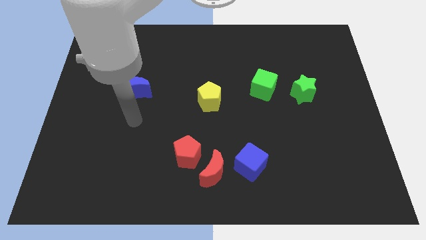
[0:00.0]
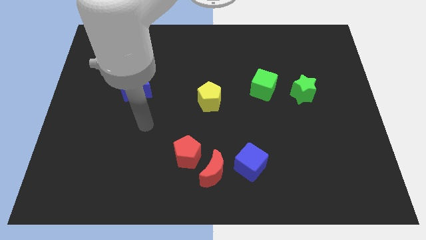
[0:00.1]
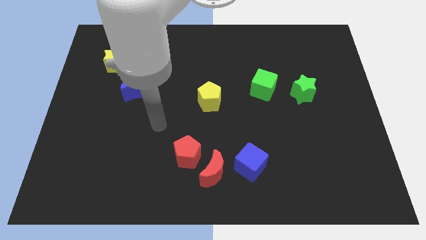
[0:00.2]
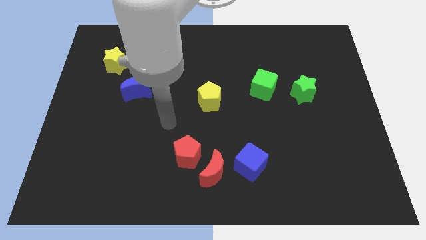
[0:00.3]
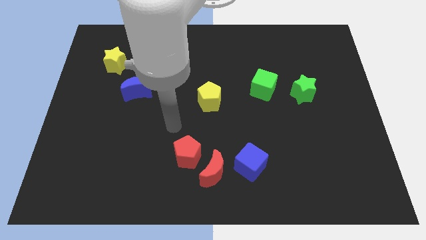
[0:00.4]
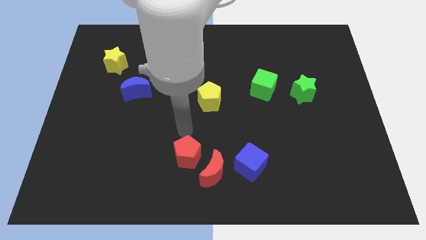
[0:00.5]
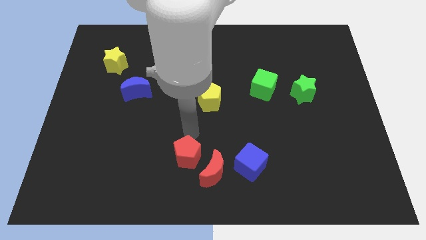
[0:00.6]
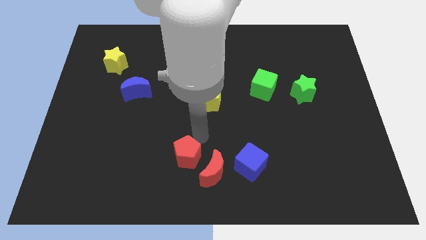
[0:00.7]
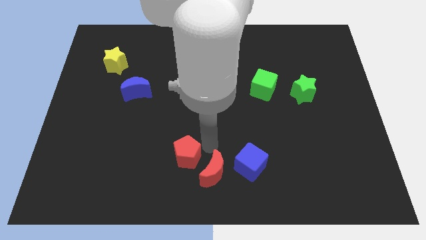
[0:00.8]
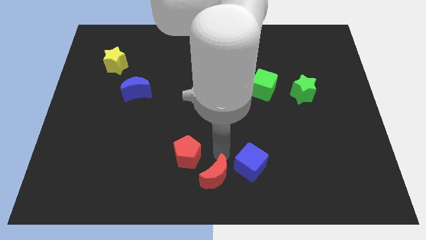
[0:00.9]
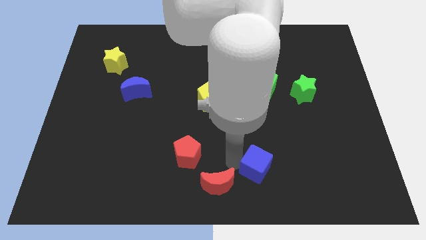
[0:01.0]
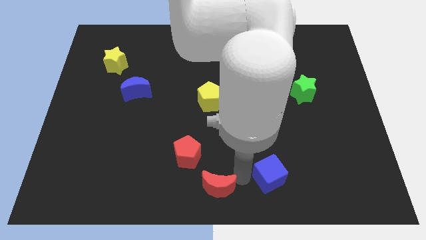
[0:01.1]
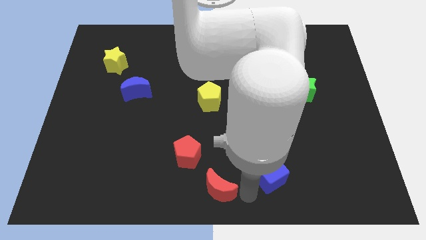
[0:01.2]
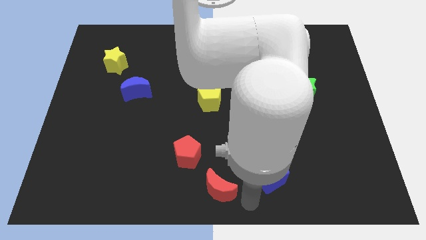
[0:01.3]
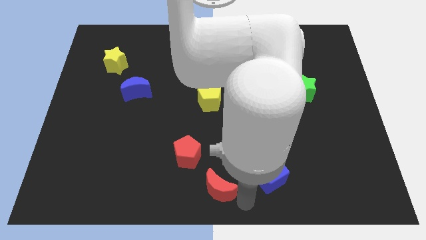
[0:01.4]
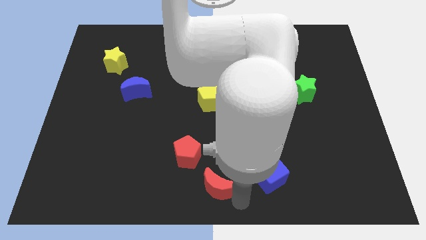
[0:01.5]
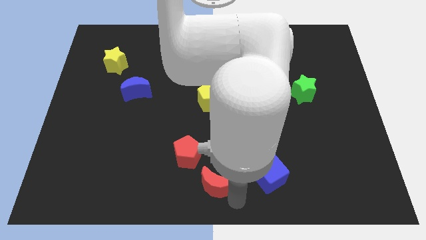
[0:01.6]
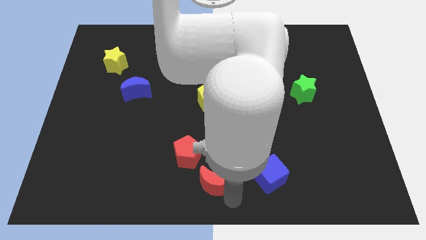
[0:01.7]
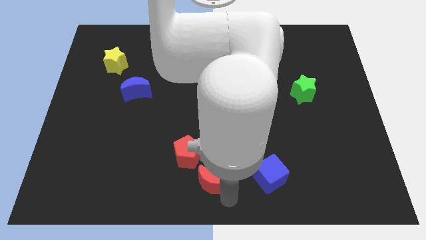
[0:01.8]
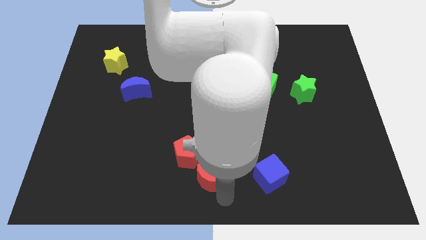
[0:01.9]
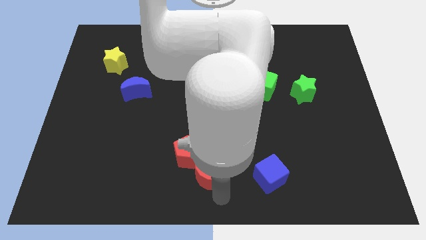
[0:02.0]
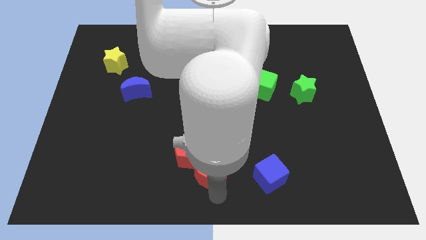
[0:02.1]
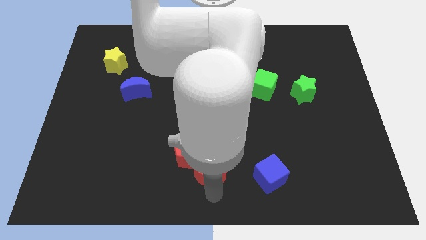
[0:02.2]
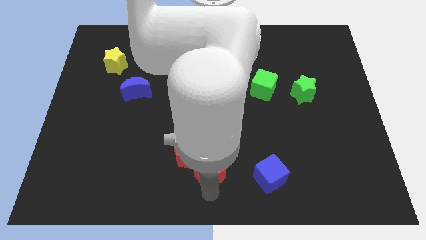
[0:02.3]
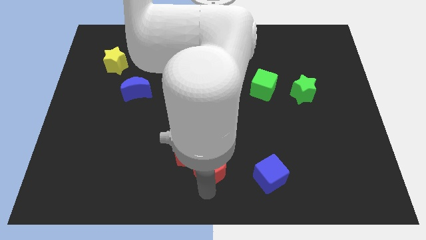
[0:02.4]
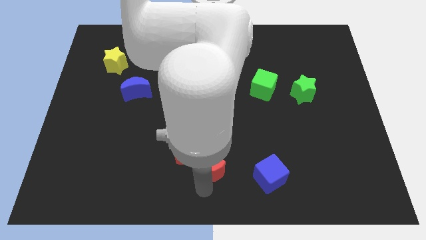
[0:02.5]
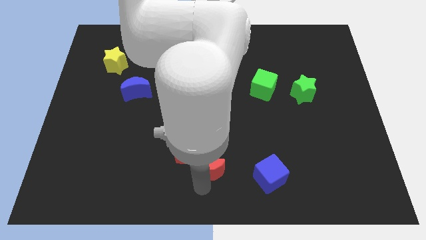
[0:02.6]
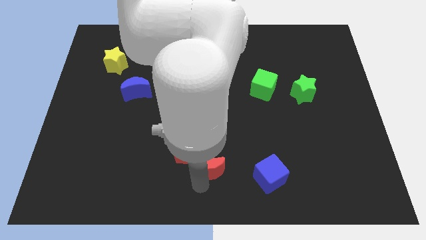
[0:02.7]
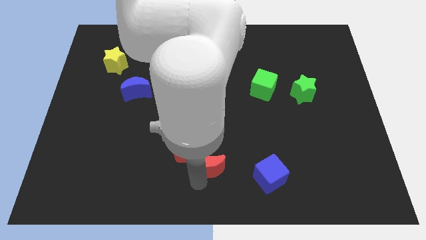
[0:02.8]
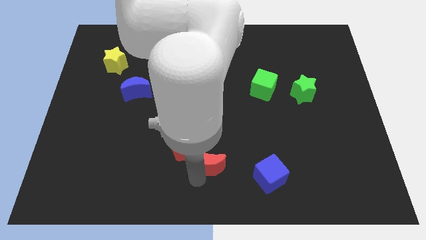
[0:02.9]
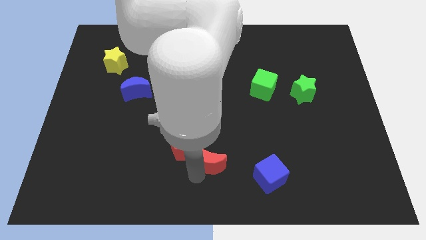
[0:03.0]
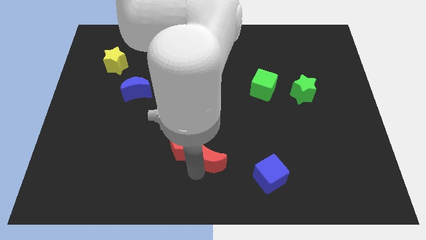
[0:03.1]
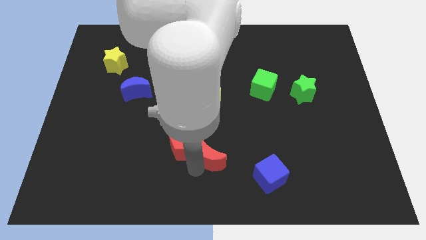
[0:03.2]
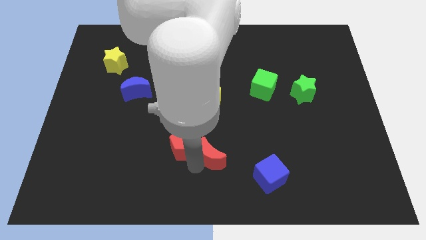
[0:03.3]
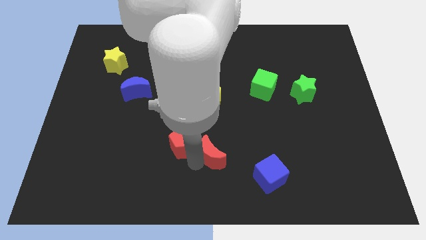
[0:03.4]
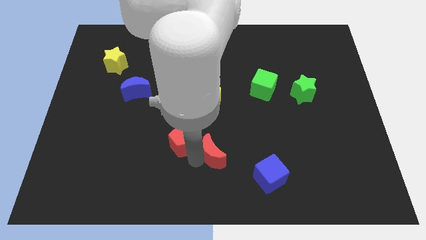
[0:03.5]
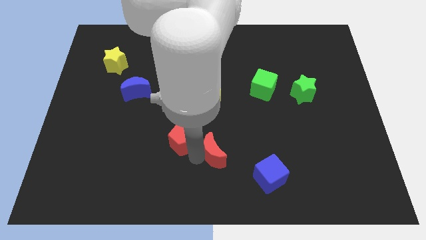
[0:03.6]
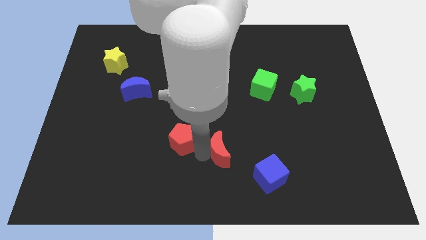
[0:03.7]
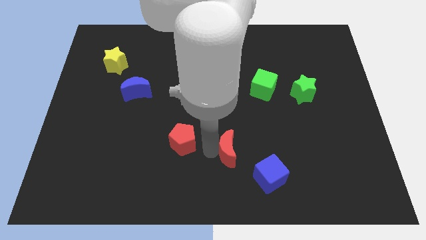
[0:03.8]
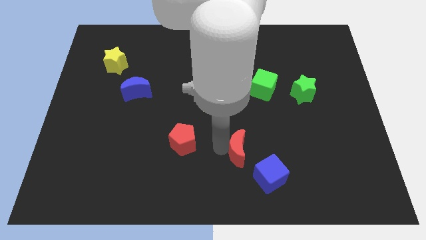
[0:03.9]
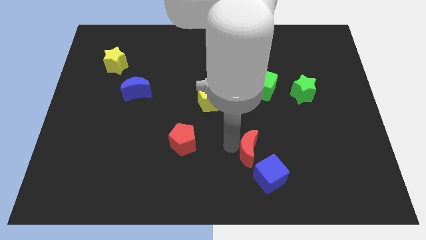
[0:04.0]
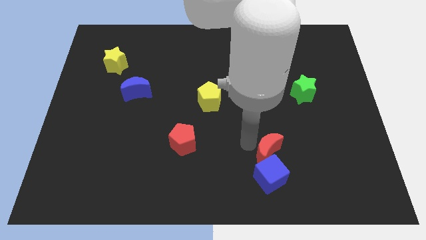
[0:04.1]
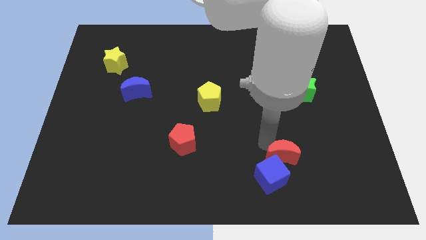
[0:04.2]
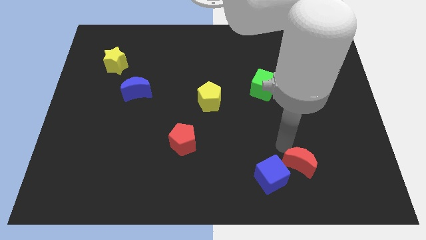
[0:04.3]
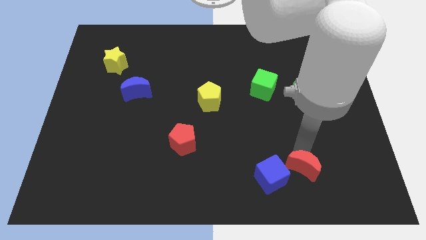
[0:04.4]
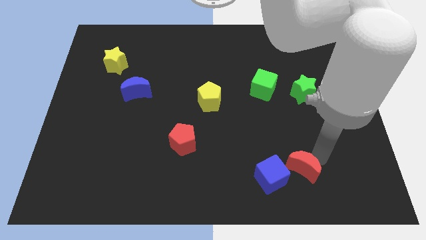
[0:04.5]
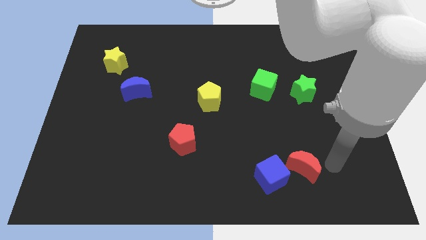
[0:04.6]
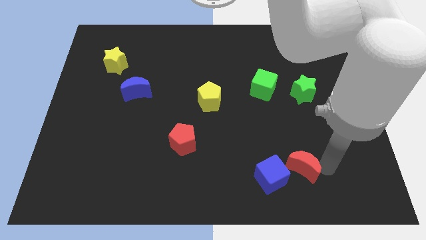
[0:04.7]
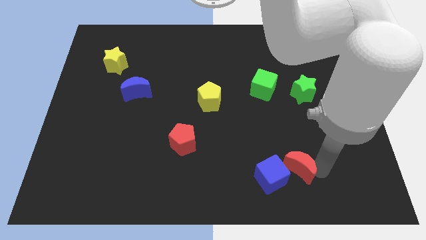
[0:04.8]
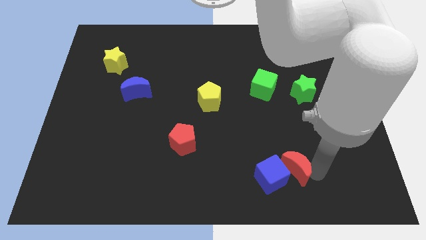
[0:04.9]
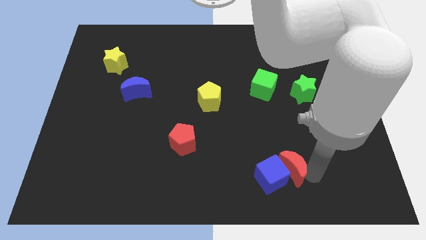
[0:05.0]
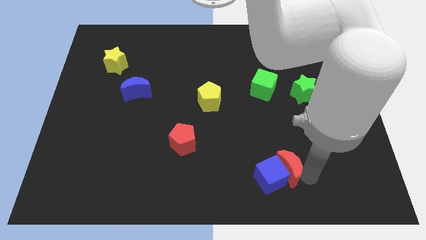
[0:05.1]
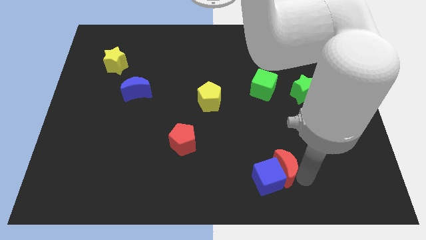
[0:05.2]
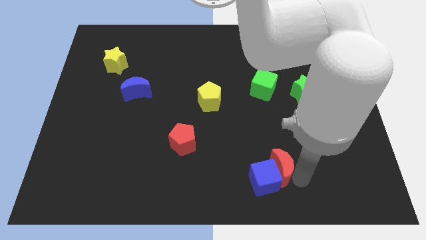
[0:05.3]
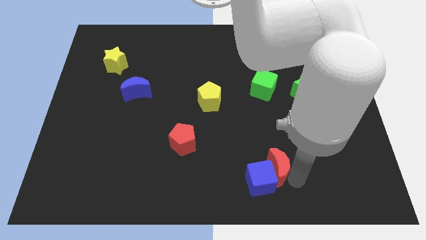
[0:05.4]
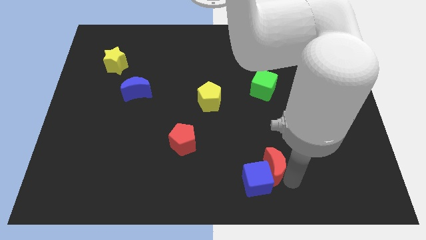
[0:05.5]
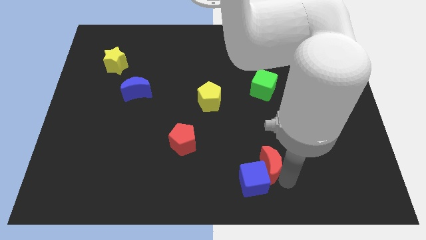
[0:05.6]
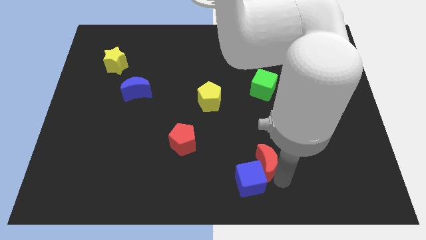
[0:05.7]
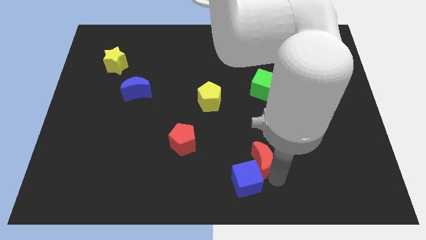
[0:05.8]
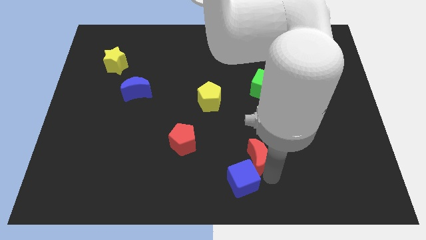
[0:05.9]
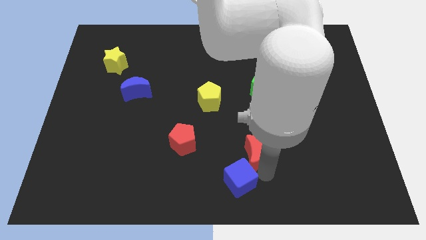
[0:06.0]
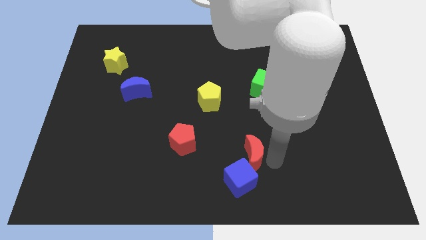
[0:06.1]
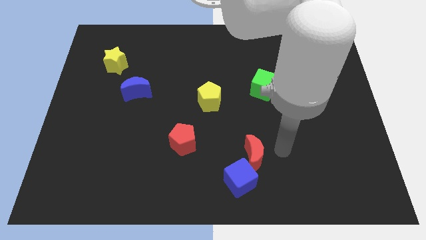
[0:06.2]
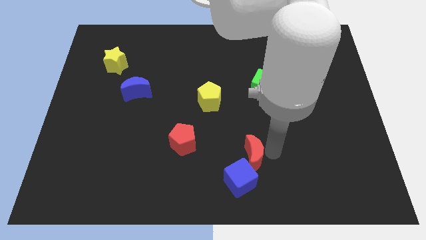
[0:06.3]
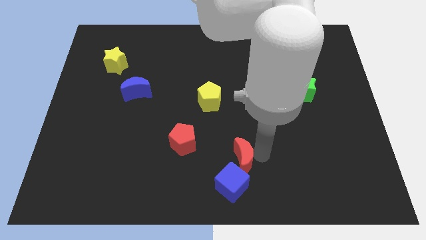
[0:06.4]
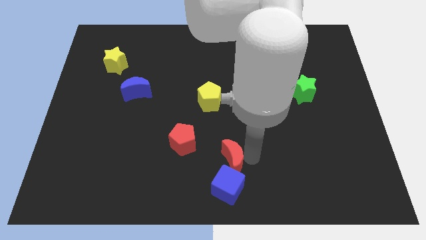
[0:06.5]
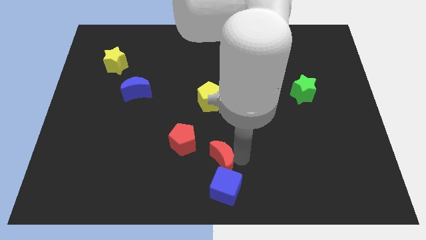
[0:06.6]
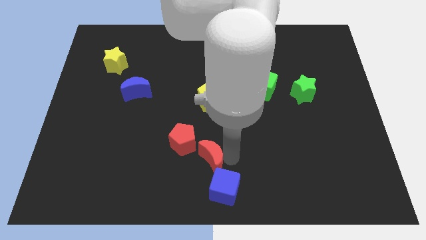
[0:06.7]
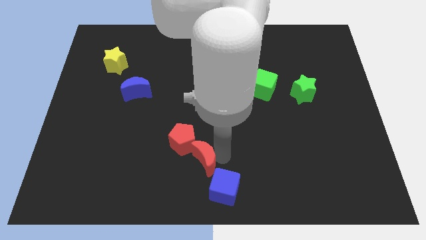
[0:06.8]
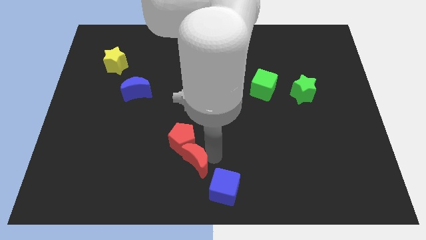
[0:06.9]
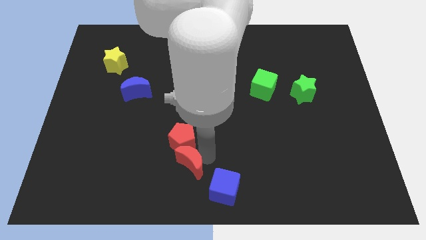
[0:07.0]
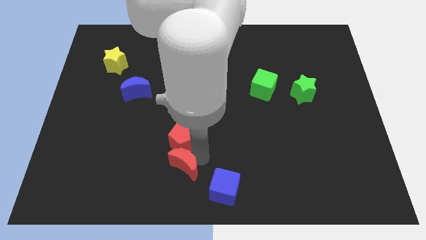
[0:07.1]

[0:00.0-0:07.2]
move the red moon diagonally down and to the left of the red pentagon
